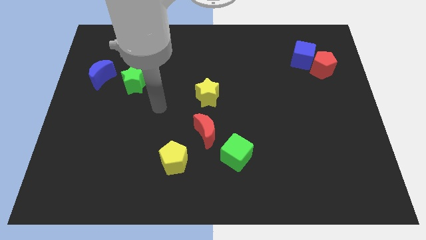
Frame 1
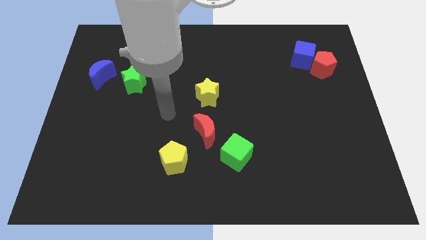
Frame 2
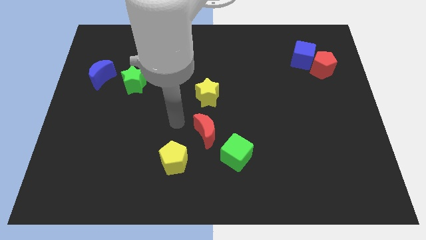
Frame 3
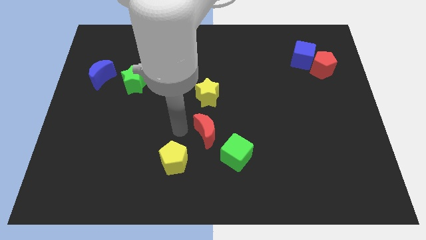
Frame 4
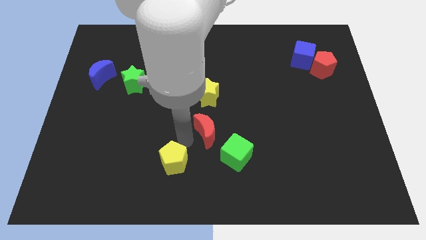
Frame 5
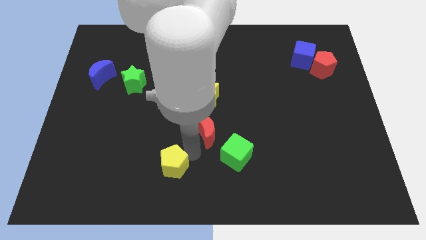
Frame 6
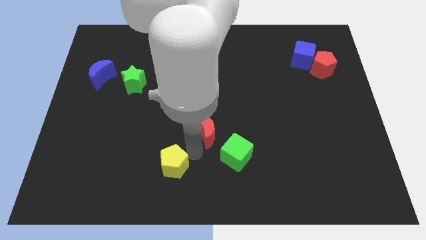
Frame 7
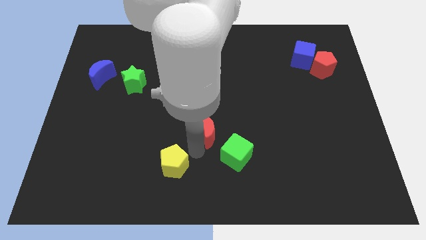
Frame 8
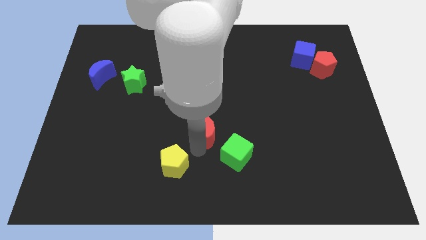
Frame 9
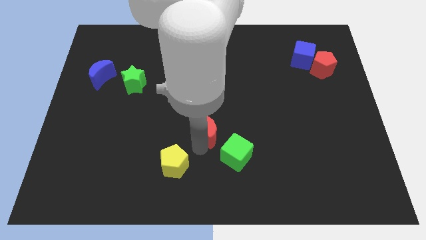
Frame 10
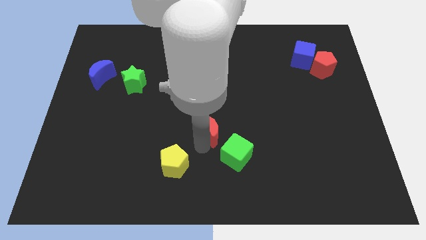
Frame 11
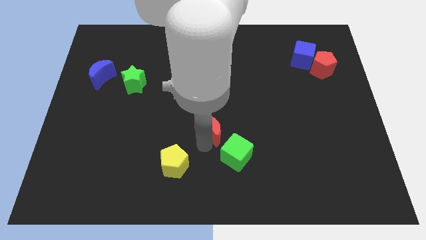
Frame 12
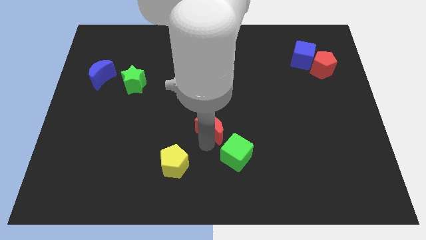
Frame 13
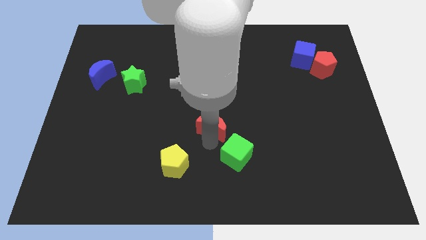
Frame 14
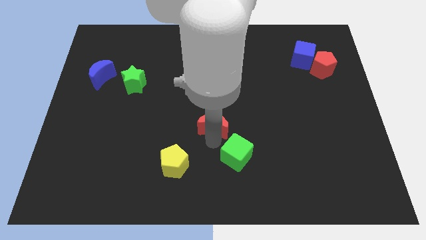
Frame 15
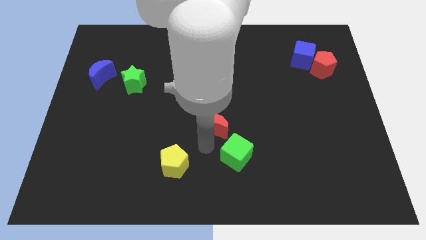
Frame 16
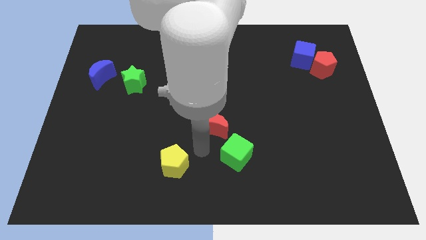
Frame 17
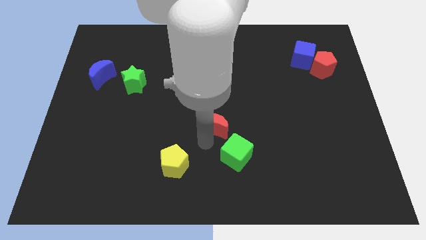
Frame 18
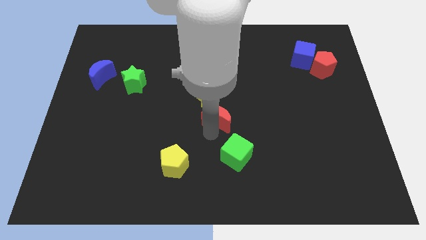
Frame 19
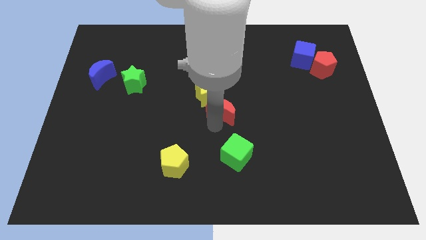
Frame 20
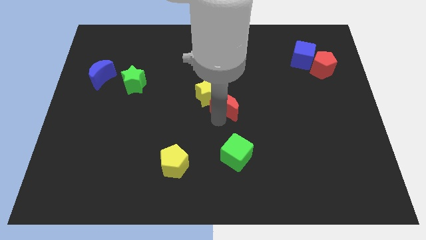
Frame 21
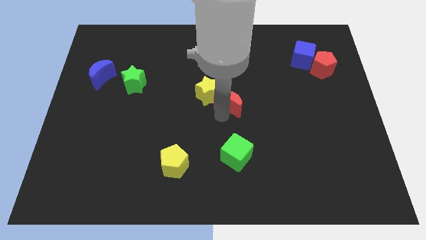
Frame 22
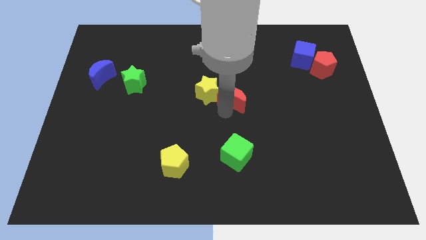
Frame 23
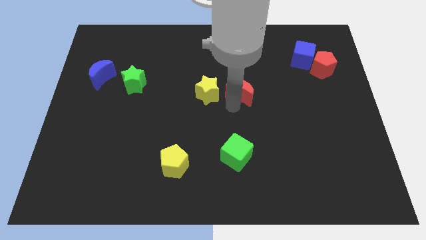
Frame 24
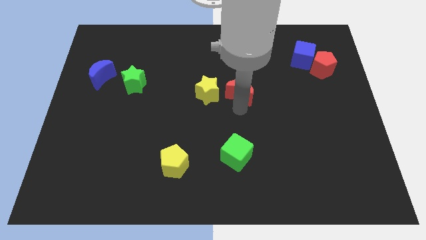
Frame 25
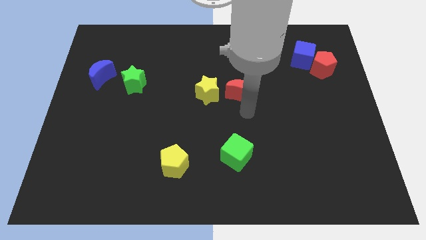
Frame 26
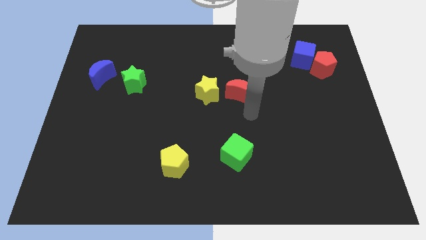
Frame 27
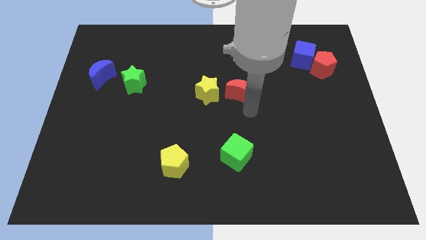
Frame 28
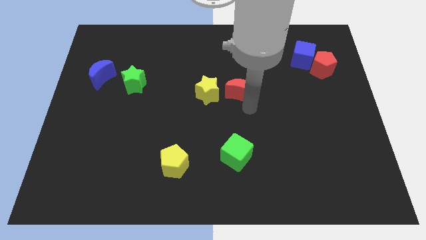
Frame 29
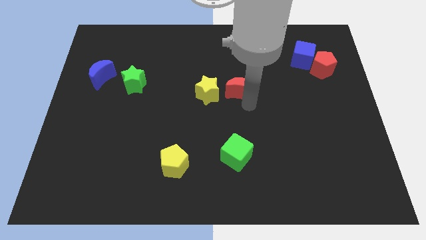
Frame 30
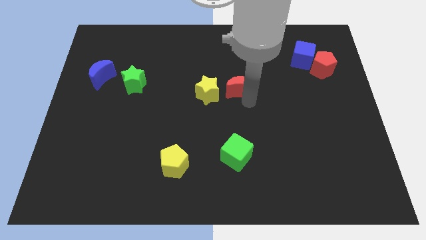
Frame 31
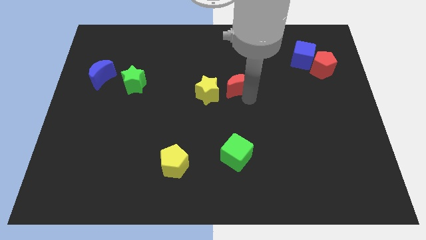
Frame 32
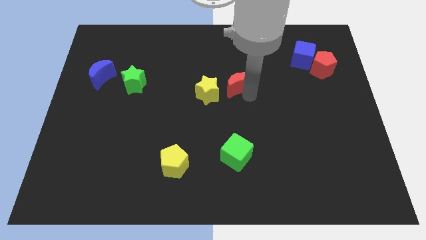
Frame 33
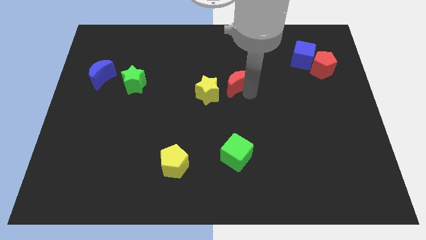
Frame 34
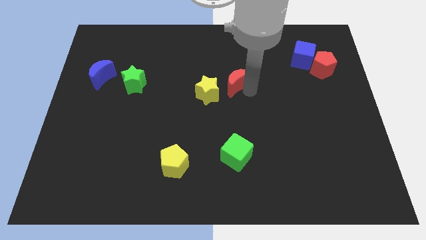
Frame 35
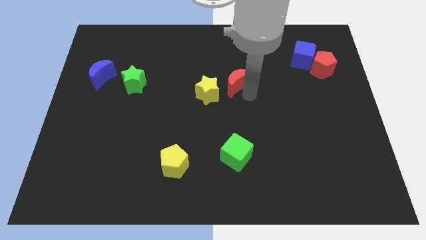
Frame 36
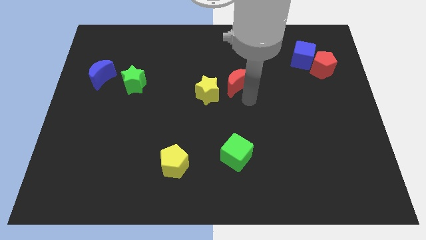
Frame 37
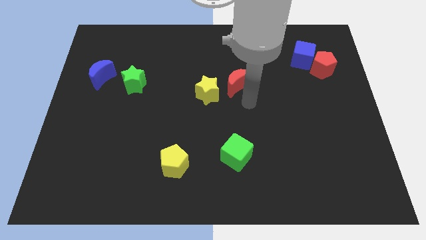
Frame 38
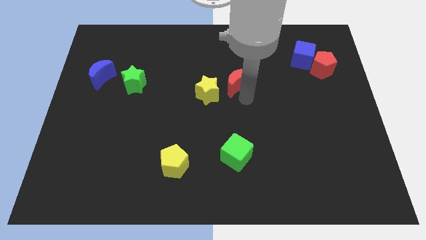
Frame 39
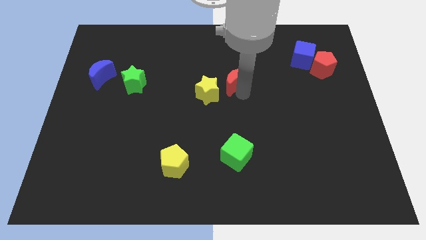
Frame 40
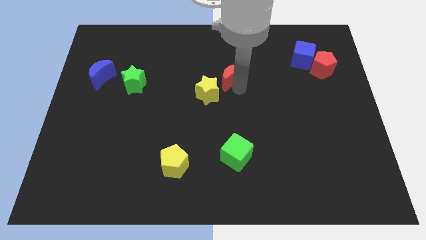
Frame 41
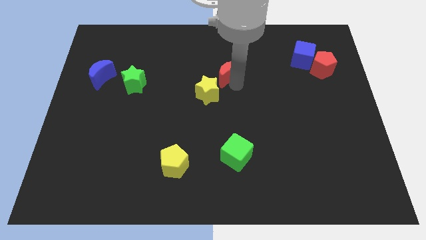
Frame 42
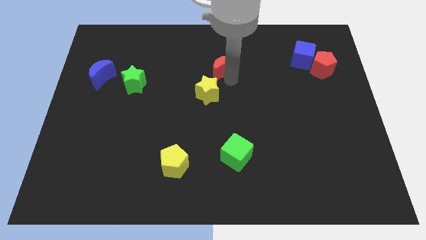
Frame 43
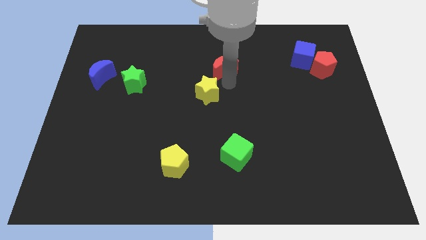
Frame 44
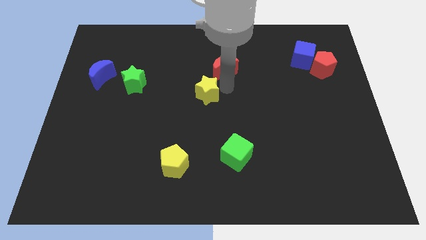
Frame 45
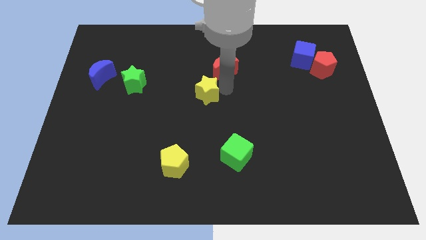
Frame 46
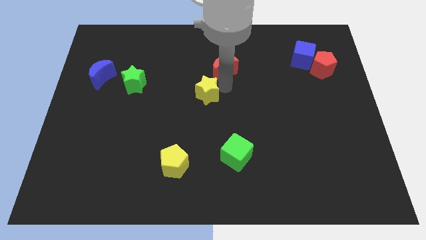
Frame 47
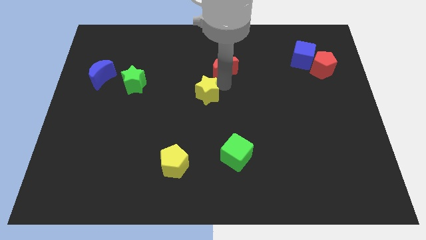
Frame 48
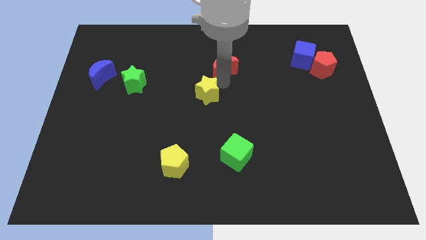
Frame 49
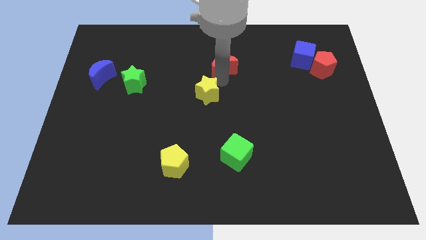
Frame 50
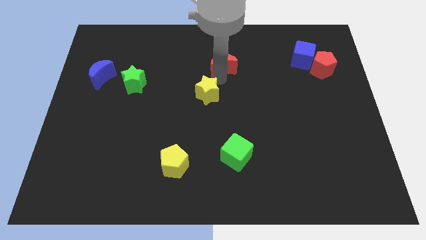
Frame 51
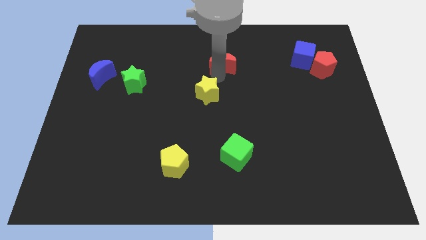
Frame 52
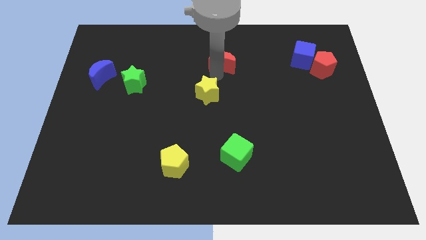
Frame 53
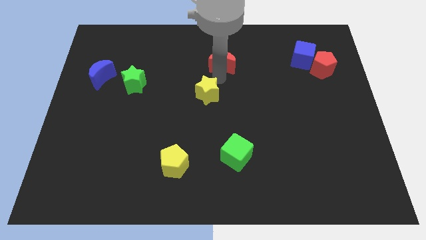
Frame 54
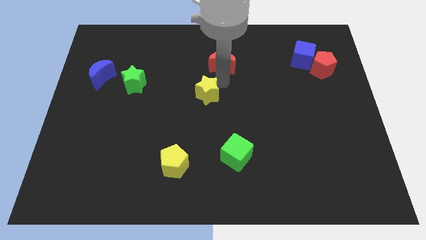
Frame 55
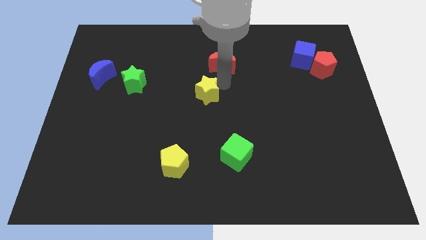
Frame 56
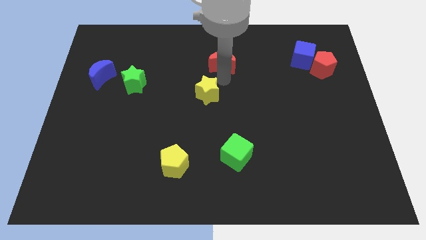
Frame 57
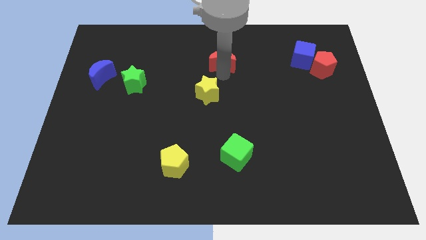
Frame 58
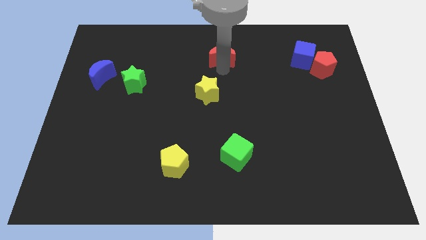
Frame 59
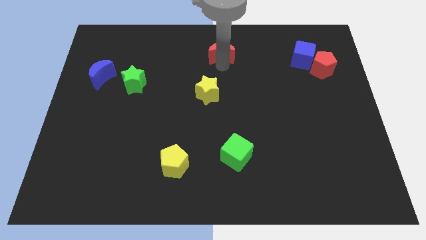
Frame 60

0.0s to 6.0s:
slide the red moon to the towards your base
